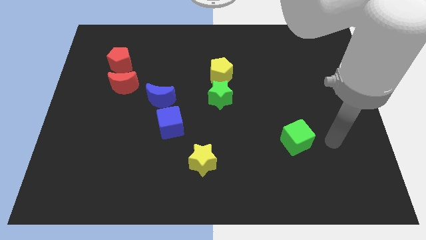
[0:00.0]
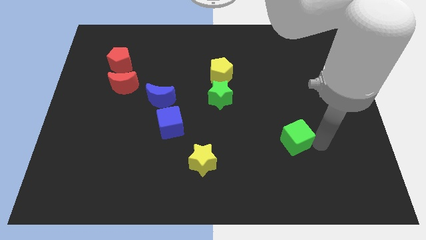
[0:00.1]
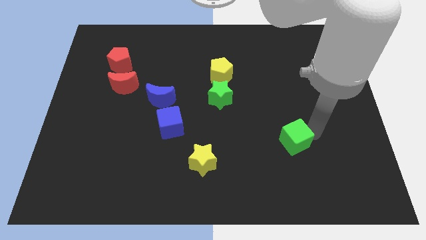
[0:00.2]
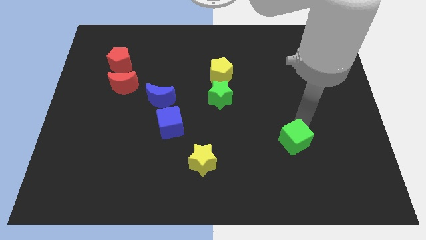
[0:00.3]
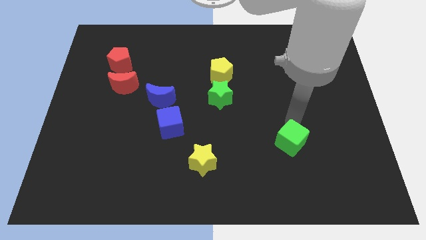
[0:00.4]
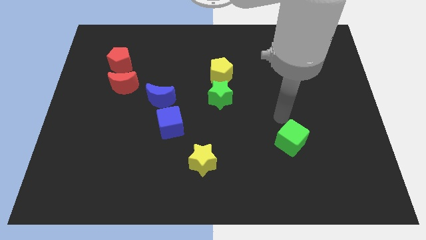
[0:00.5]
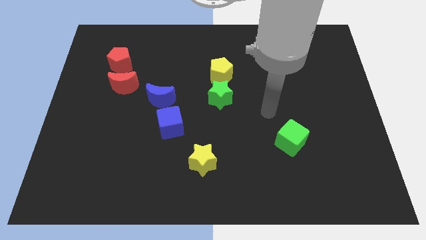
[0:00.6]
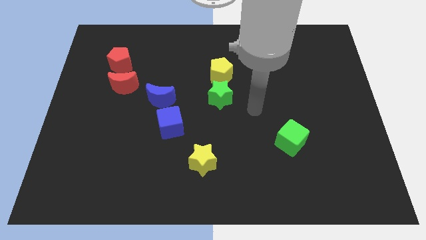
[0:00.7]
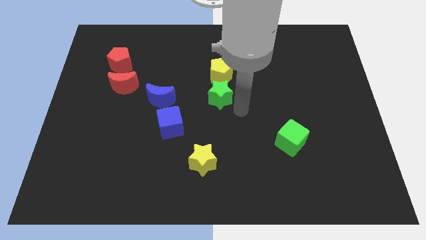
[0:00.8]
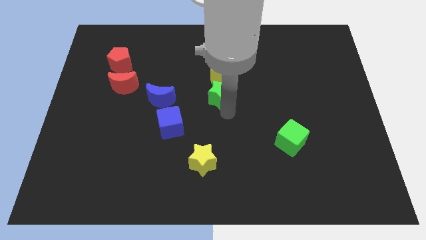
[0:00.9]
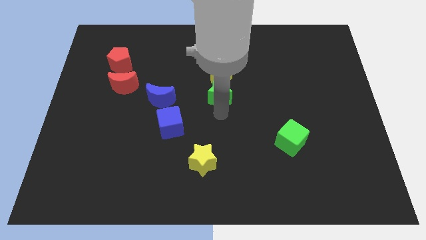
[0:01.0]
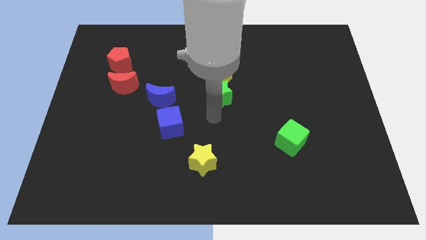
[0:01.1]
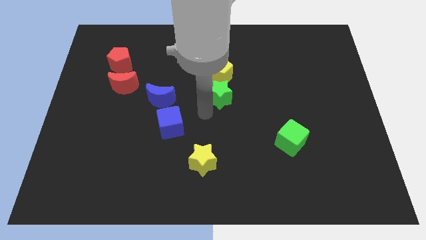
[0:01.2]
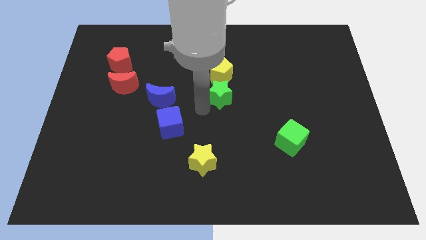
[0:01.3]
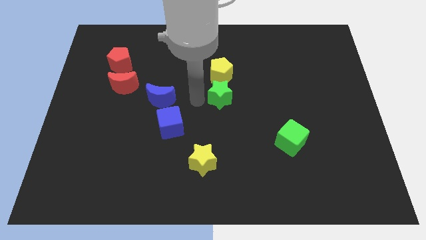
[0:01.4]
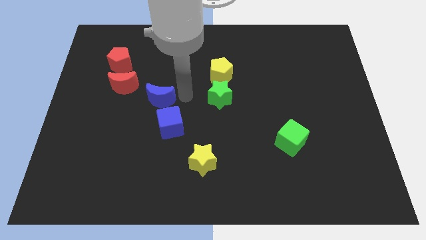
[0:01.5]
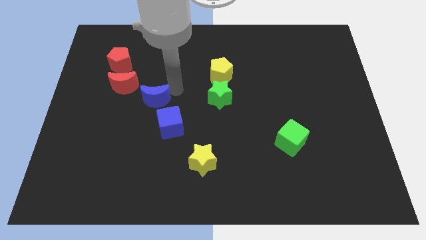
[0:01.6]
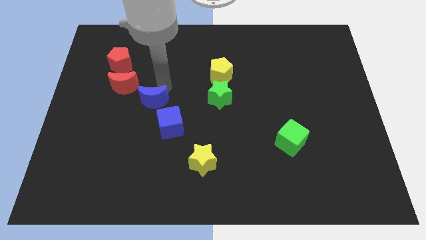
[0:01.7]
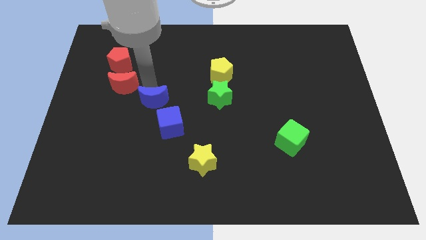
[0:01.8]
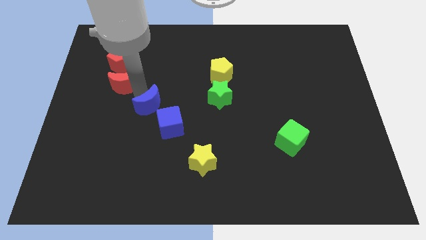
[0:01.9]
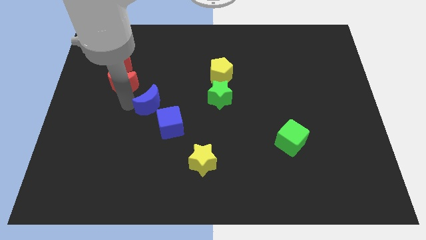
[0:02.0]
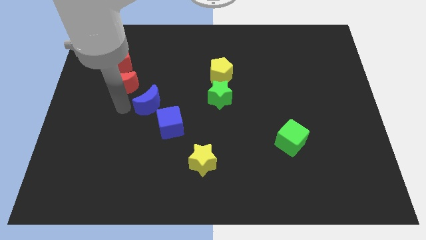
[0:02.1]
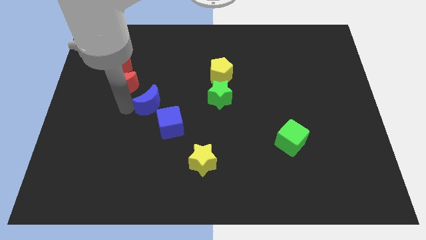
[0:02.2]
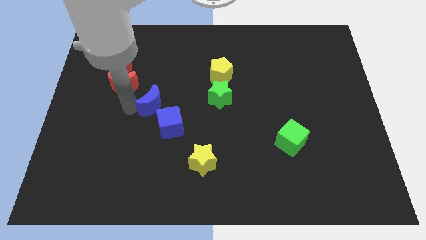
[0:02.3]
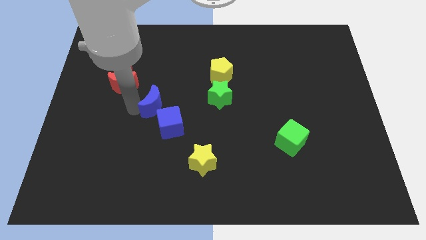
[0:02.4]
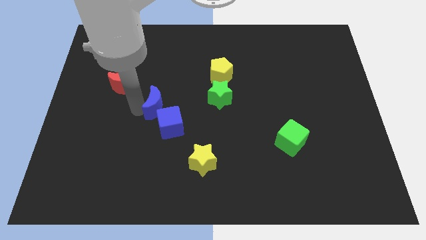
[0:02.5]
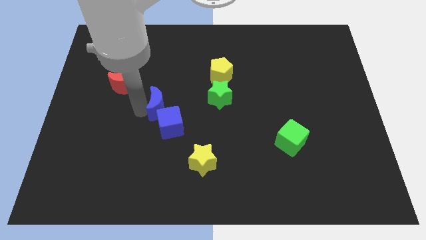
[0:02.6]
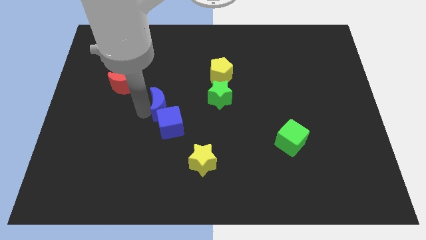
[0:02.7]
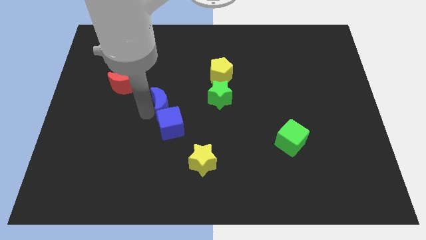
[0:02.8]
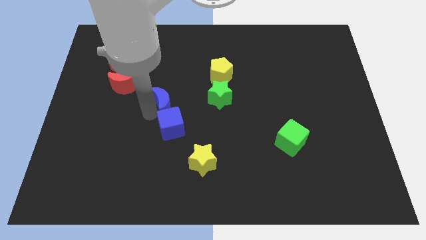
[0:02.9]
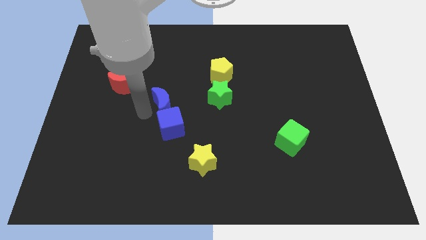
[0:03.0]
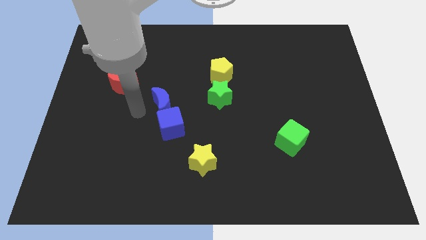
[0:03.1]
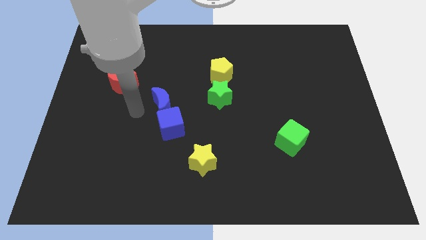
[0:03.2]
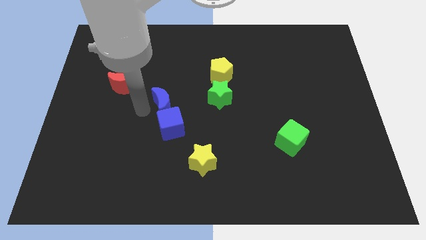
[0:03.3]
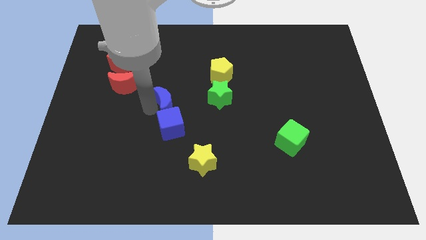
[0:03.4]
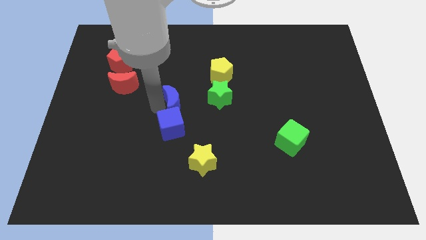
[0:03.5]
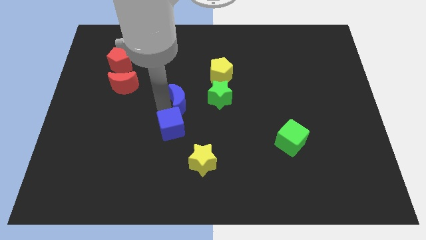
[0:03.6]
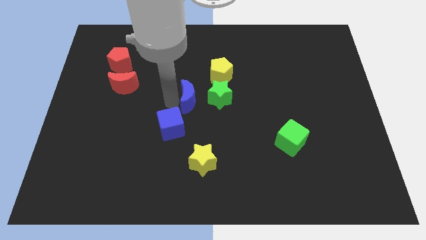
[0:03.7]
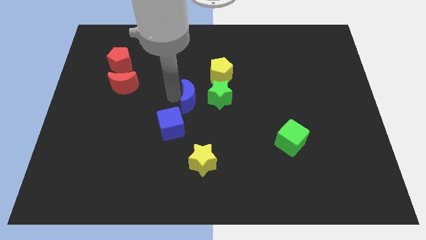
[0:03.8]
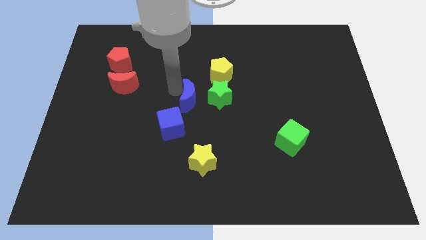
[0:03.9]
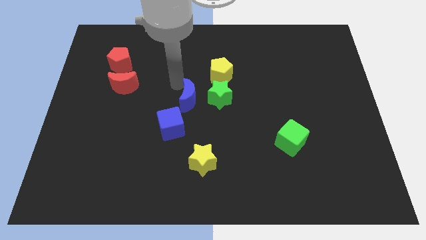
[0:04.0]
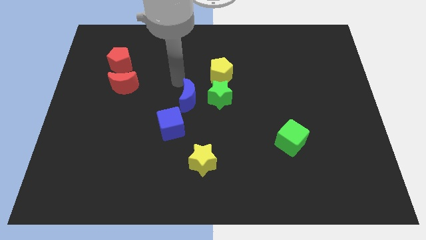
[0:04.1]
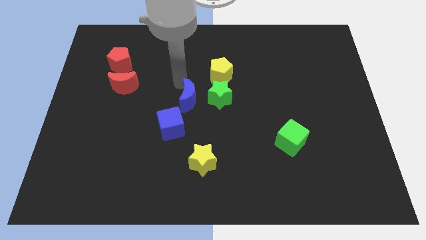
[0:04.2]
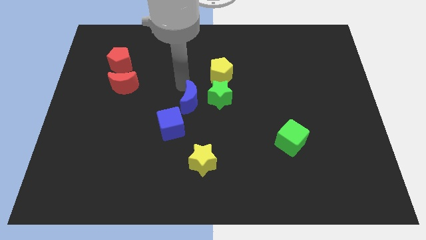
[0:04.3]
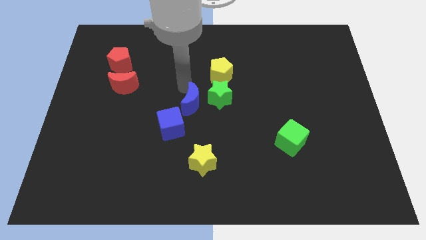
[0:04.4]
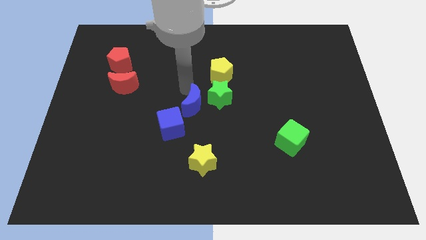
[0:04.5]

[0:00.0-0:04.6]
slide the blue moon above the yellow star

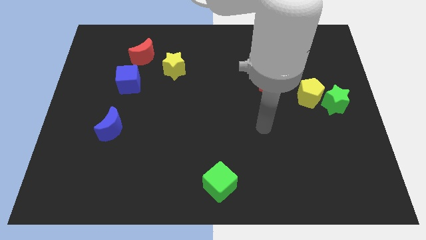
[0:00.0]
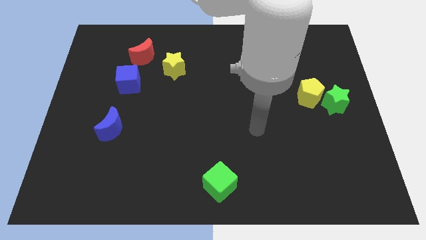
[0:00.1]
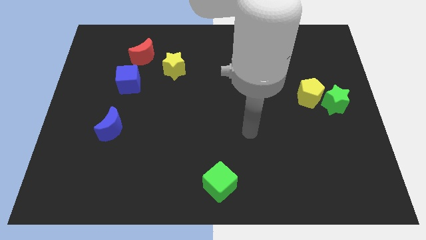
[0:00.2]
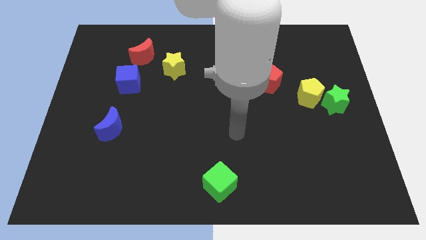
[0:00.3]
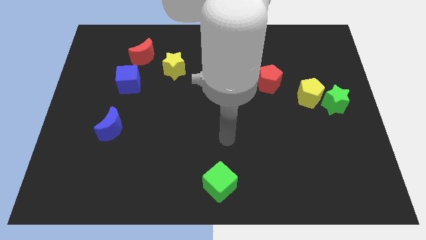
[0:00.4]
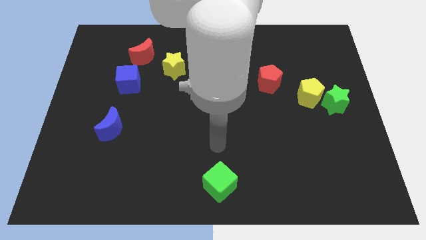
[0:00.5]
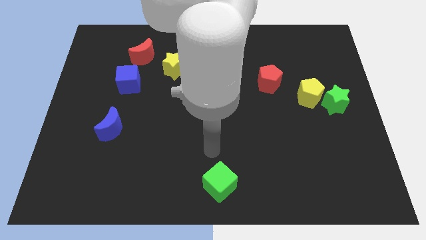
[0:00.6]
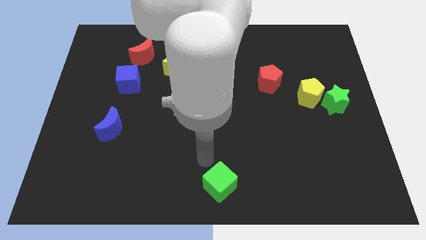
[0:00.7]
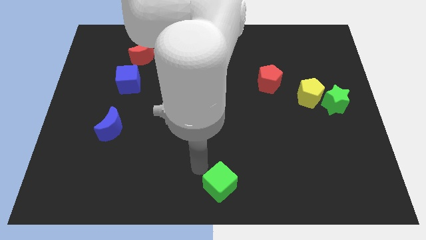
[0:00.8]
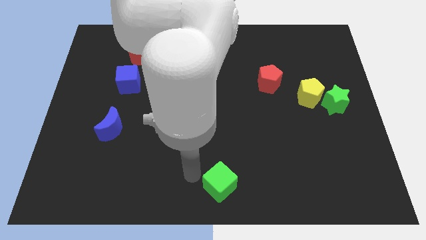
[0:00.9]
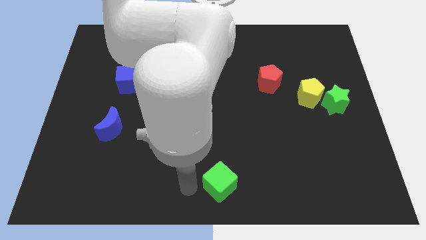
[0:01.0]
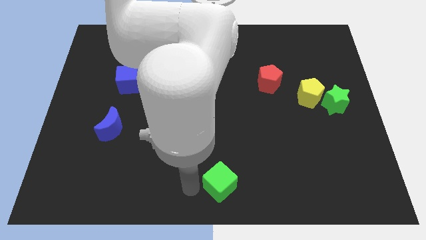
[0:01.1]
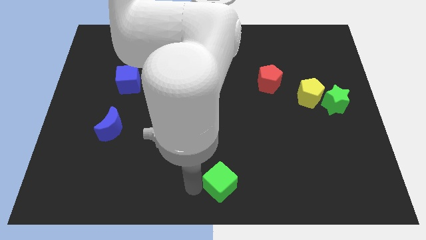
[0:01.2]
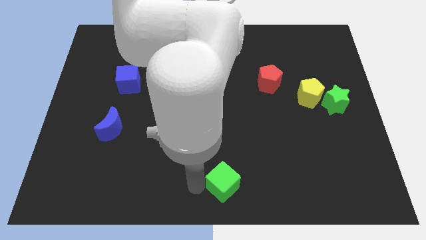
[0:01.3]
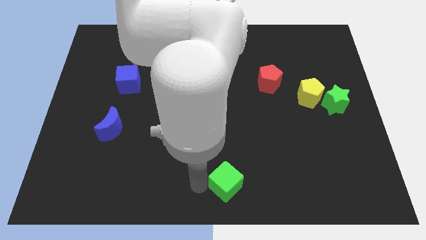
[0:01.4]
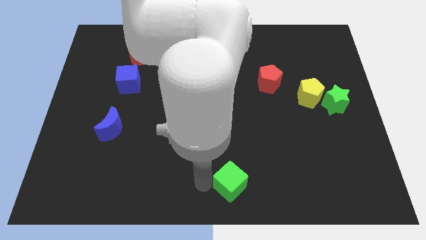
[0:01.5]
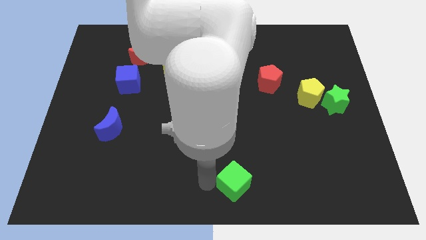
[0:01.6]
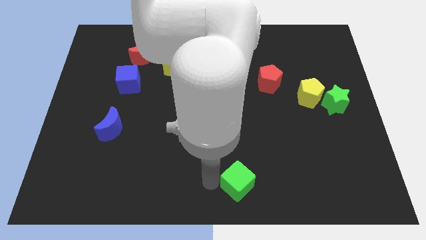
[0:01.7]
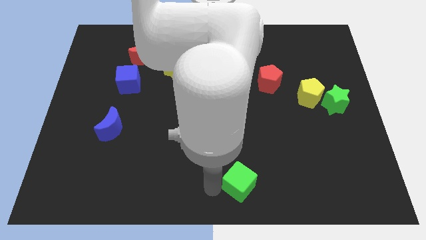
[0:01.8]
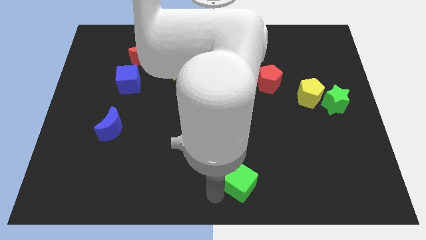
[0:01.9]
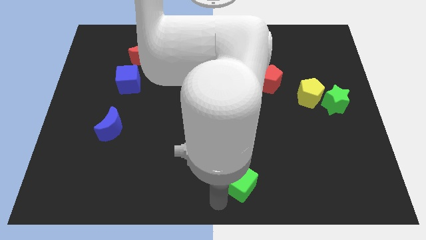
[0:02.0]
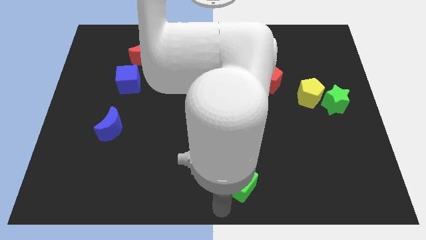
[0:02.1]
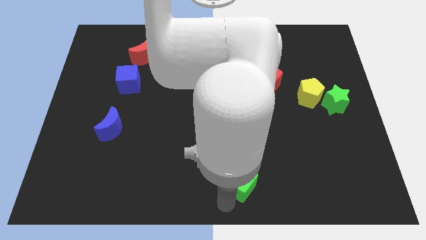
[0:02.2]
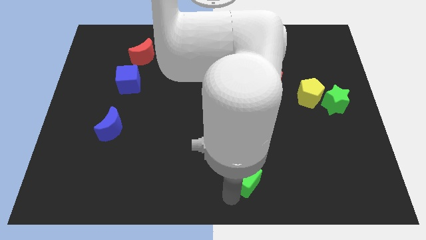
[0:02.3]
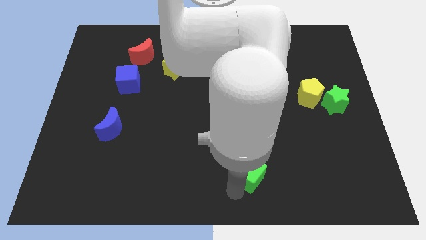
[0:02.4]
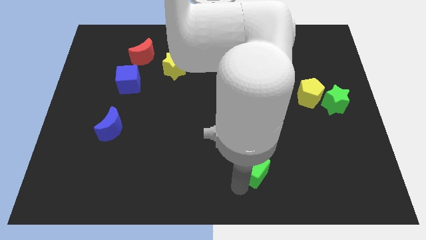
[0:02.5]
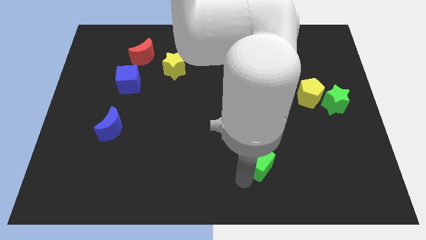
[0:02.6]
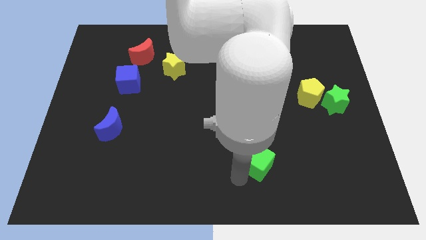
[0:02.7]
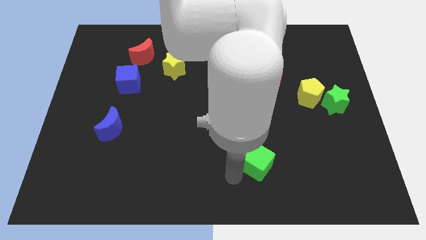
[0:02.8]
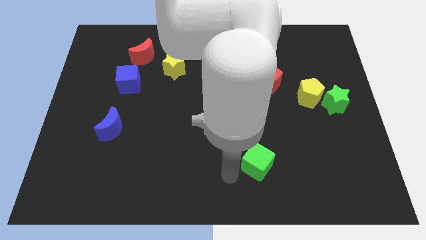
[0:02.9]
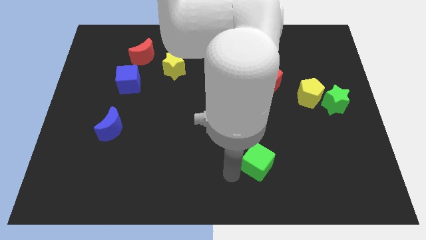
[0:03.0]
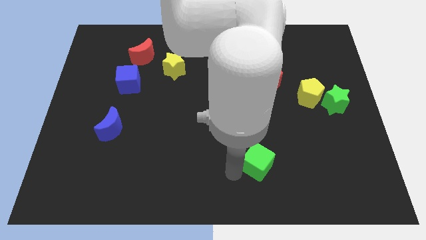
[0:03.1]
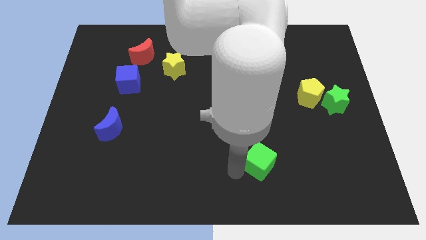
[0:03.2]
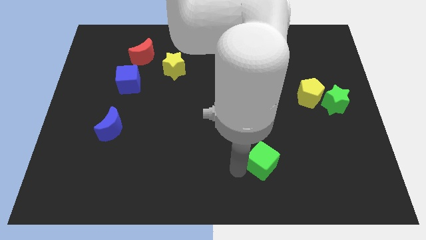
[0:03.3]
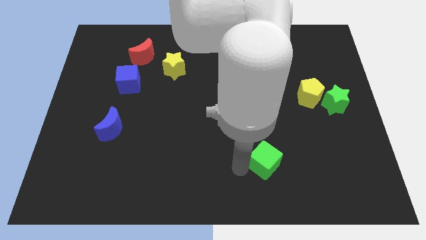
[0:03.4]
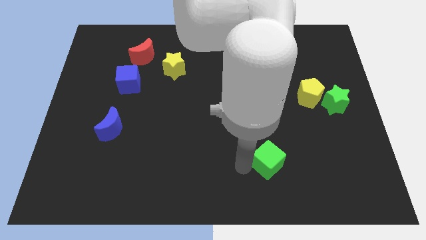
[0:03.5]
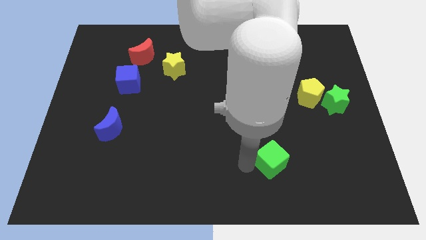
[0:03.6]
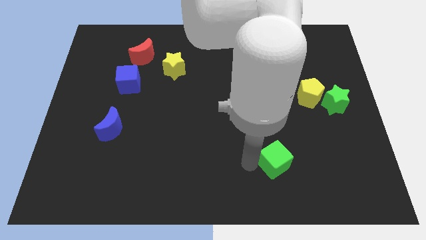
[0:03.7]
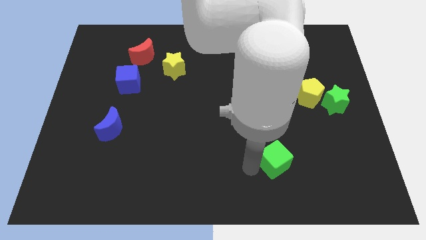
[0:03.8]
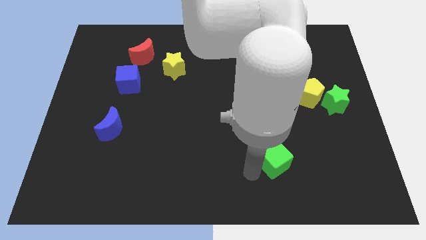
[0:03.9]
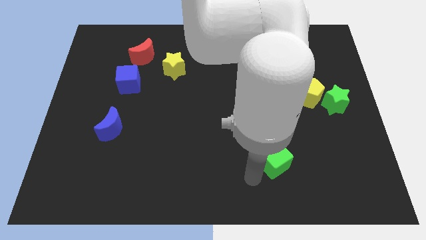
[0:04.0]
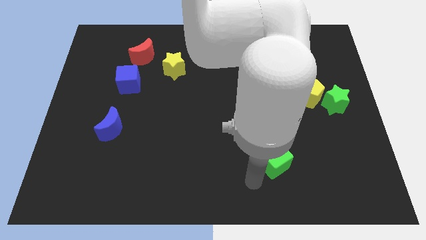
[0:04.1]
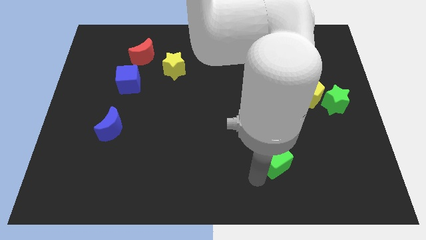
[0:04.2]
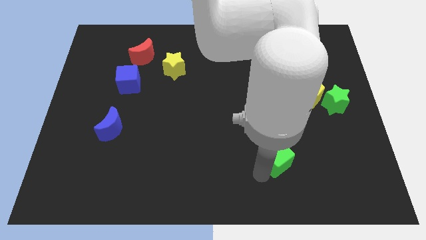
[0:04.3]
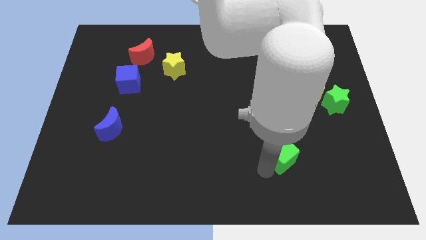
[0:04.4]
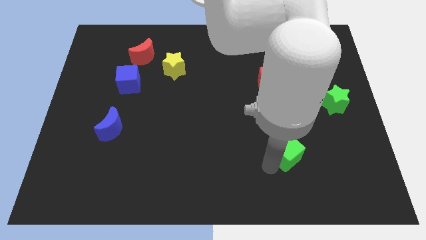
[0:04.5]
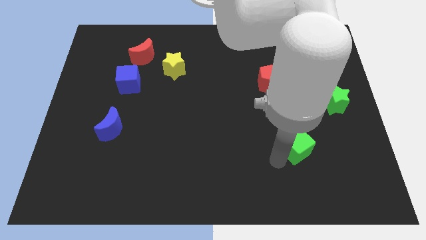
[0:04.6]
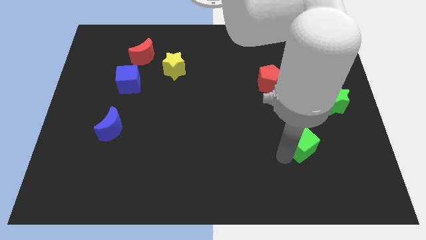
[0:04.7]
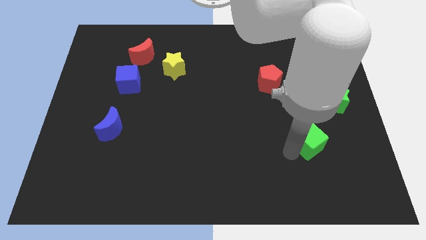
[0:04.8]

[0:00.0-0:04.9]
slide the green cube below the yellow pentagon
